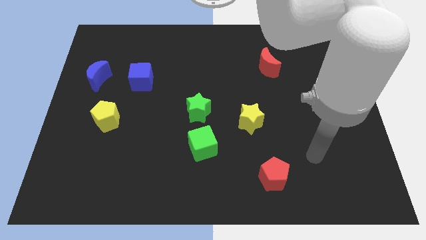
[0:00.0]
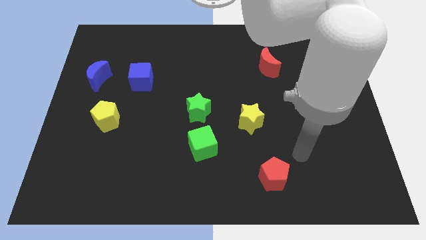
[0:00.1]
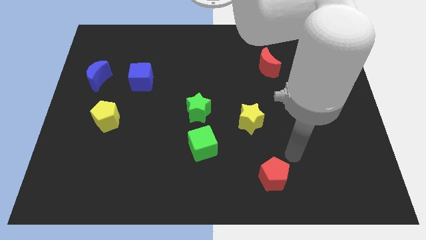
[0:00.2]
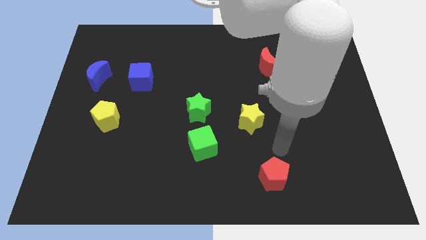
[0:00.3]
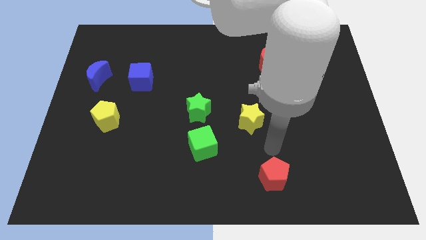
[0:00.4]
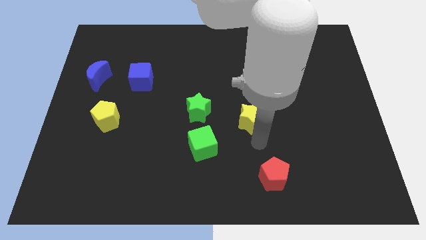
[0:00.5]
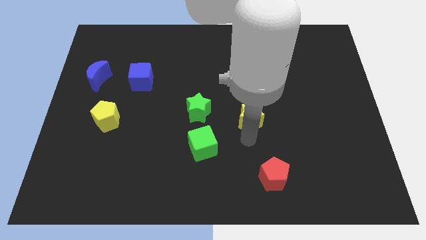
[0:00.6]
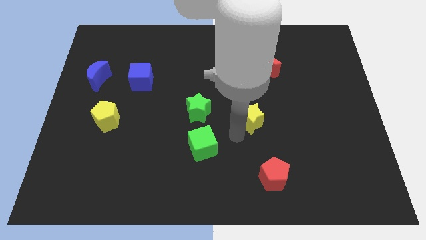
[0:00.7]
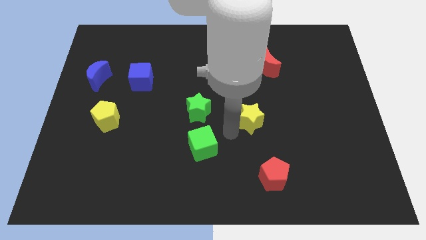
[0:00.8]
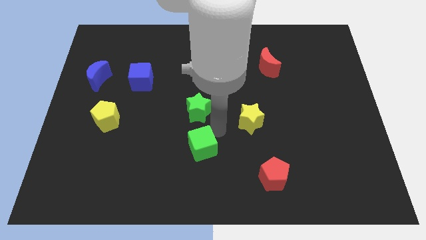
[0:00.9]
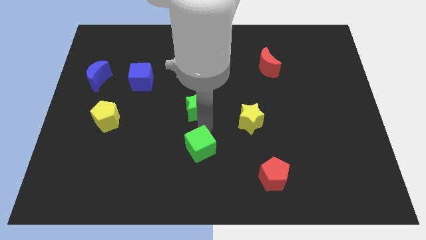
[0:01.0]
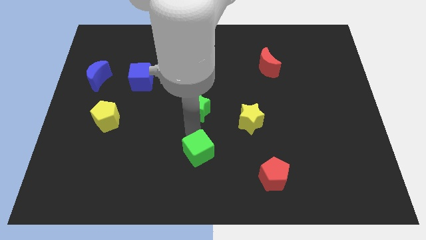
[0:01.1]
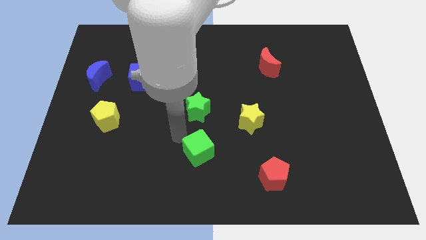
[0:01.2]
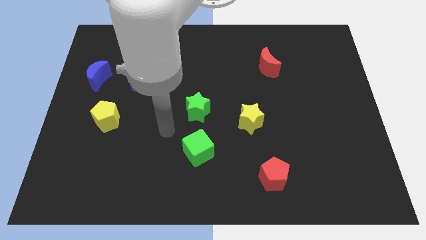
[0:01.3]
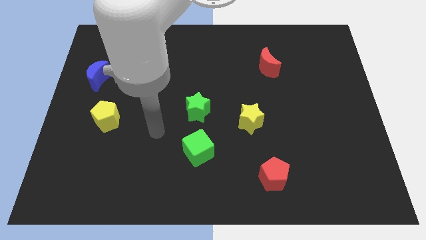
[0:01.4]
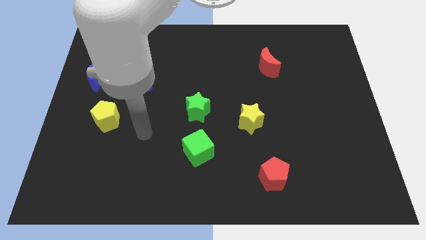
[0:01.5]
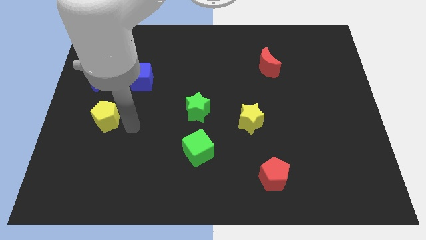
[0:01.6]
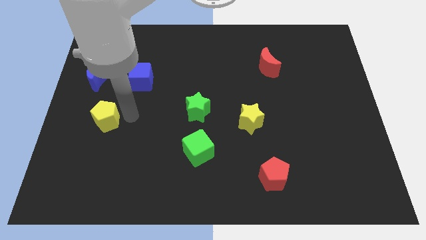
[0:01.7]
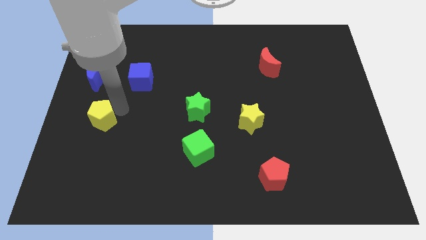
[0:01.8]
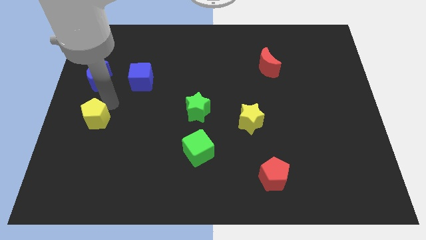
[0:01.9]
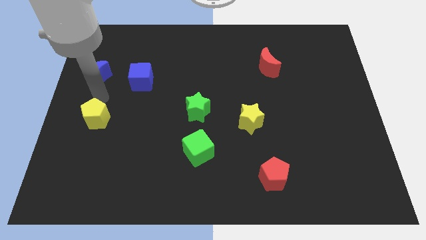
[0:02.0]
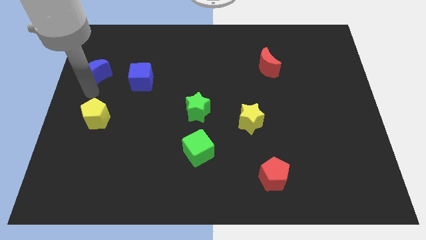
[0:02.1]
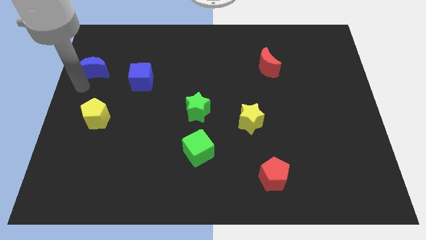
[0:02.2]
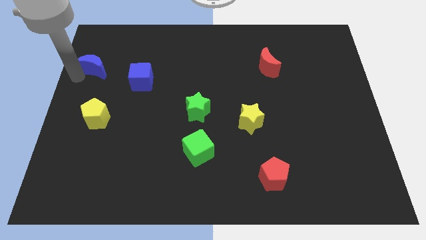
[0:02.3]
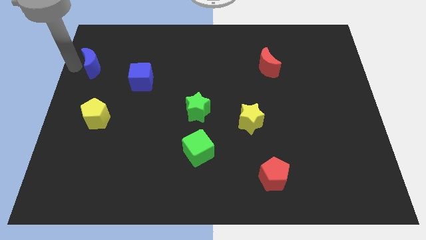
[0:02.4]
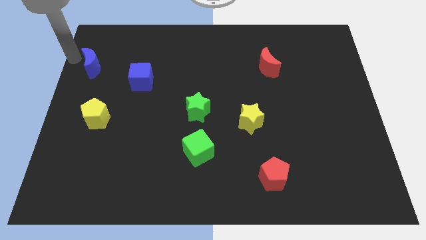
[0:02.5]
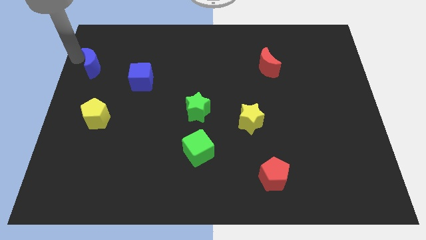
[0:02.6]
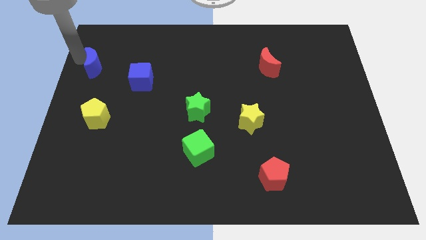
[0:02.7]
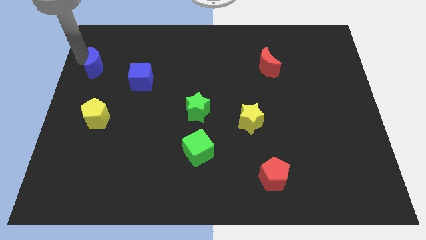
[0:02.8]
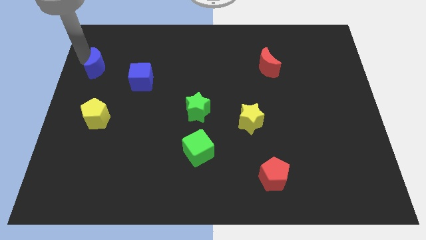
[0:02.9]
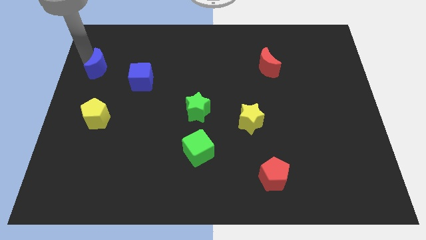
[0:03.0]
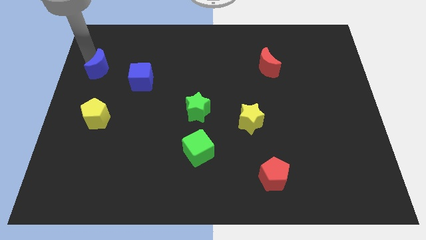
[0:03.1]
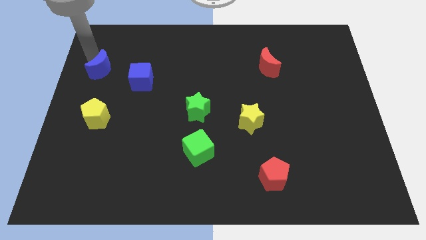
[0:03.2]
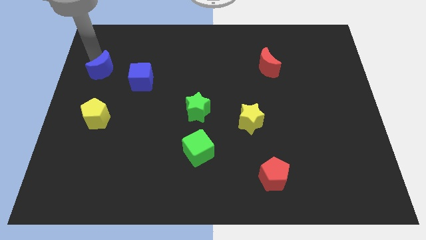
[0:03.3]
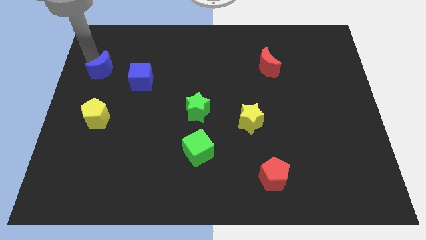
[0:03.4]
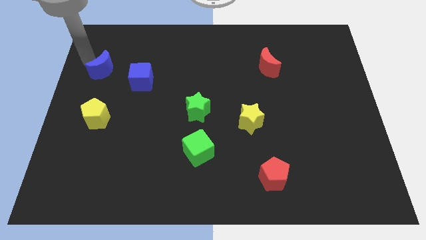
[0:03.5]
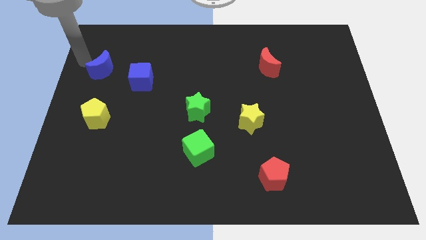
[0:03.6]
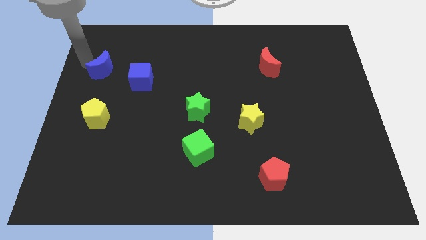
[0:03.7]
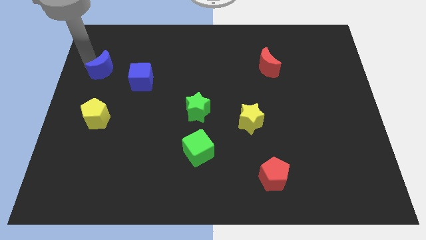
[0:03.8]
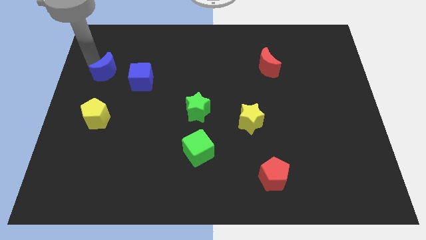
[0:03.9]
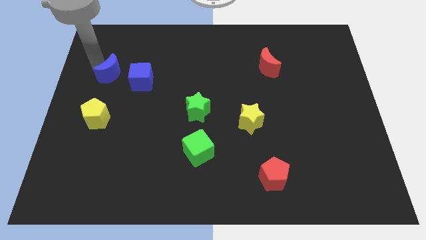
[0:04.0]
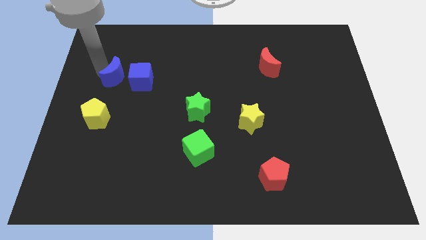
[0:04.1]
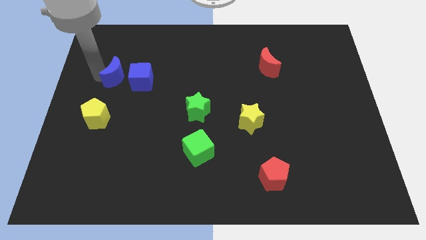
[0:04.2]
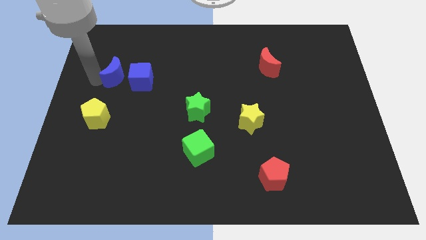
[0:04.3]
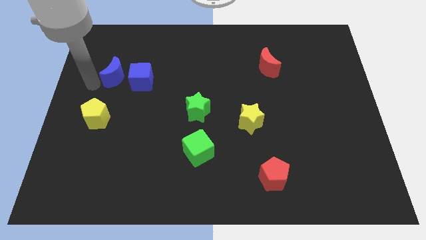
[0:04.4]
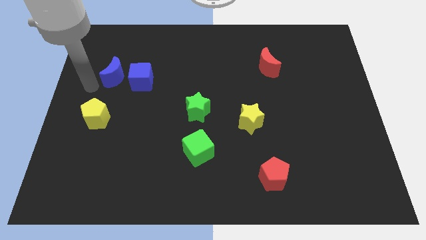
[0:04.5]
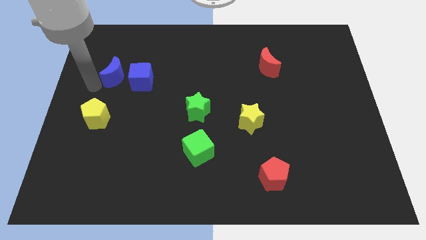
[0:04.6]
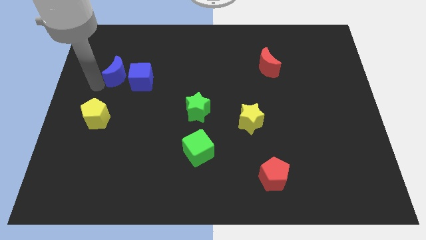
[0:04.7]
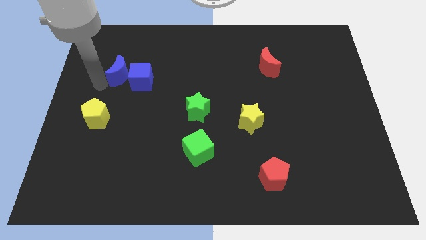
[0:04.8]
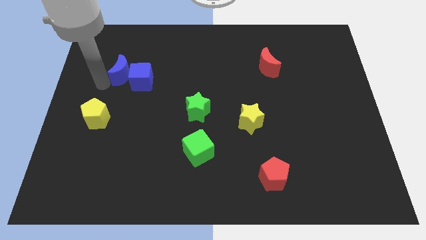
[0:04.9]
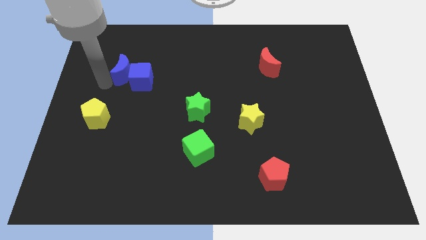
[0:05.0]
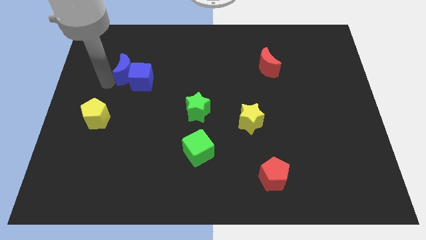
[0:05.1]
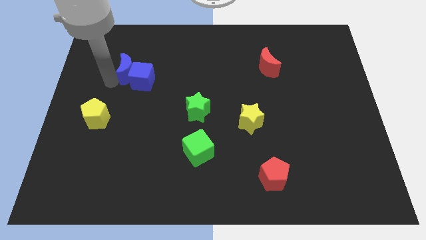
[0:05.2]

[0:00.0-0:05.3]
move the blue moon a bit right

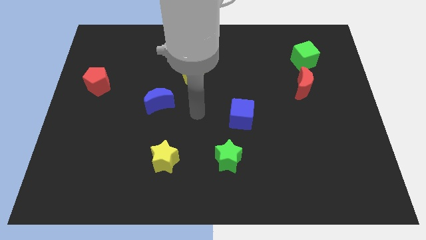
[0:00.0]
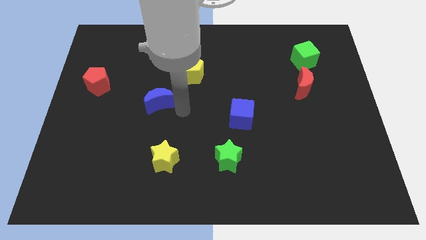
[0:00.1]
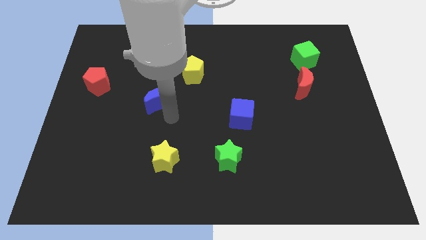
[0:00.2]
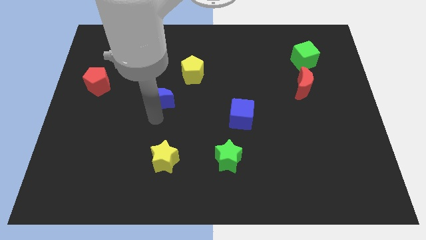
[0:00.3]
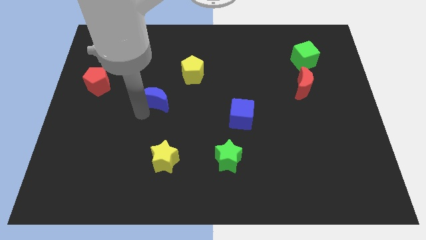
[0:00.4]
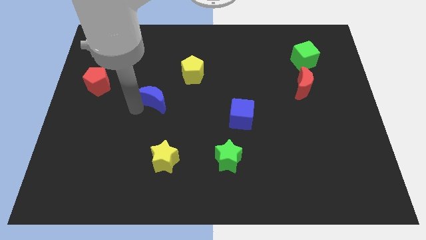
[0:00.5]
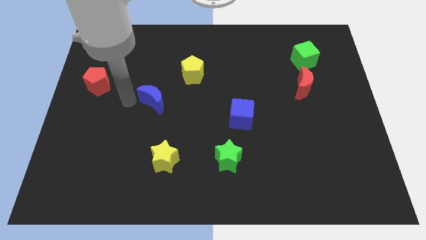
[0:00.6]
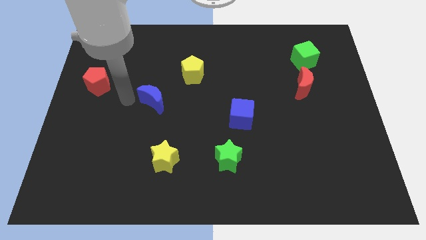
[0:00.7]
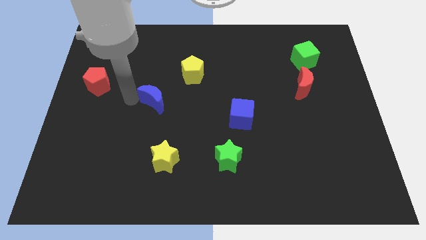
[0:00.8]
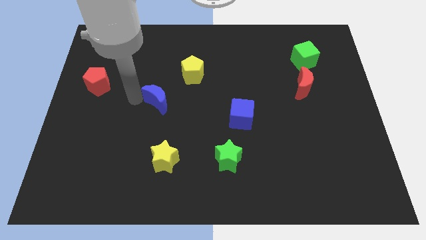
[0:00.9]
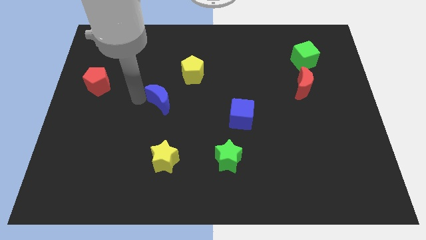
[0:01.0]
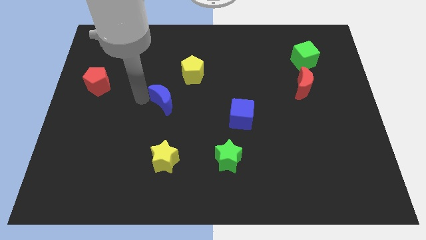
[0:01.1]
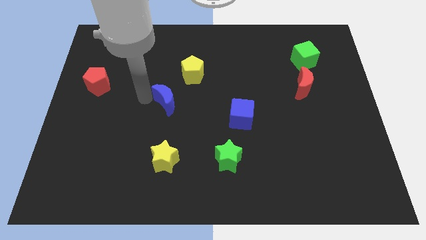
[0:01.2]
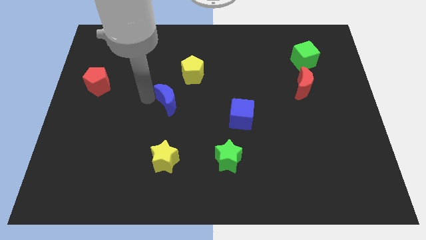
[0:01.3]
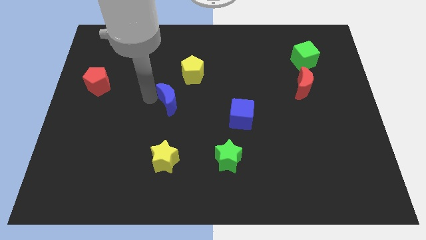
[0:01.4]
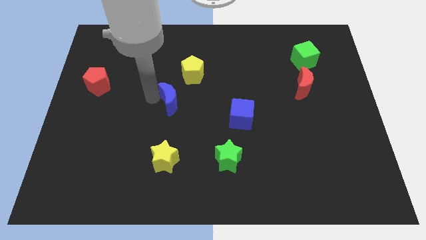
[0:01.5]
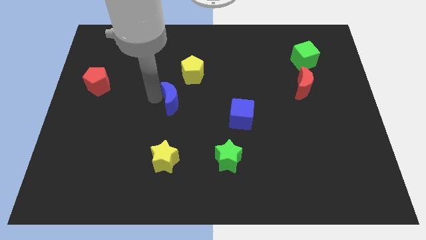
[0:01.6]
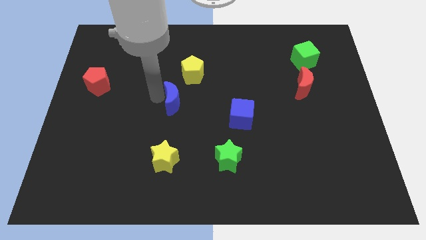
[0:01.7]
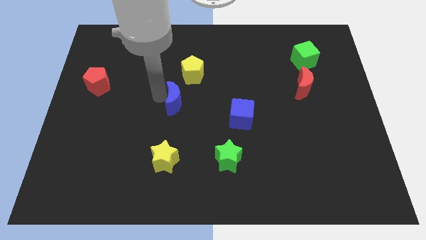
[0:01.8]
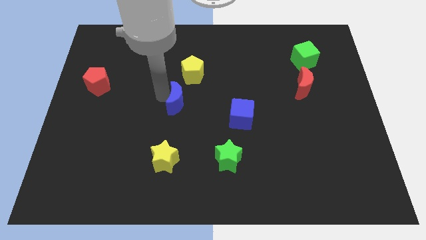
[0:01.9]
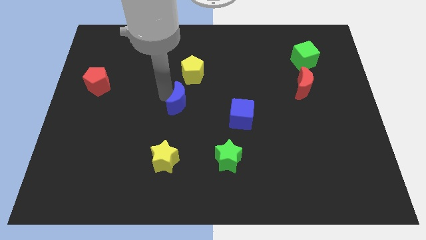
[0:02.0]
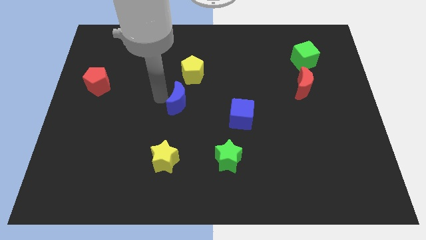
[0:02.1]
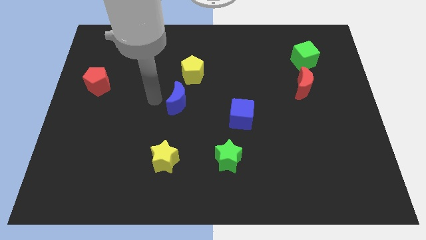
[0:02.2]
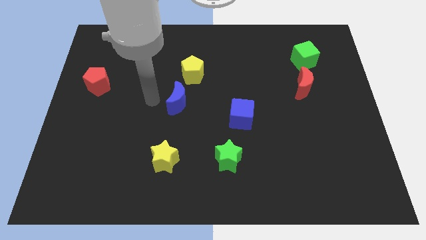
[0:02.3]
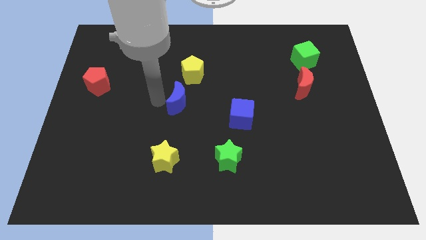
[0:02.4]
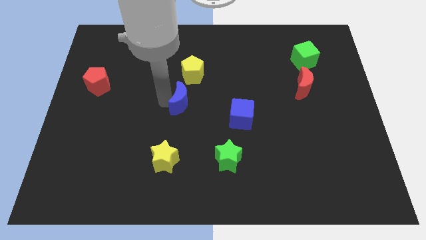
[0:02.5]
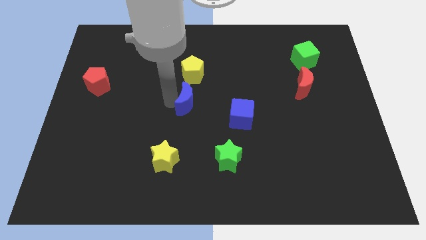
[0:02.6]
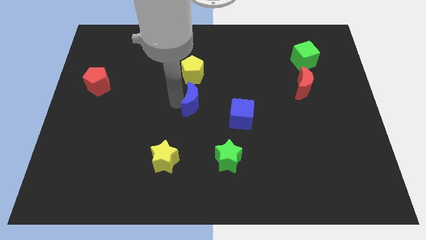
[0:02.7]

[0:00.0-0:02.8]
slide the blue moon right a bit
